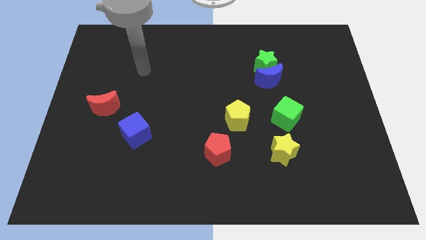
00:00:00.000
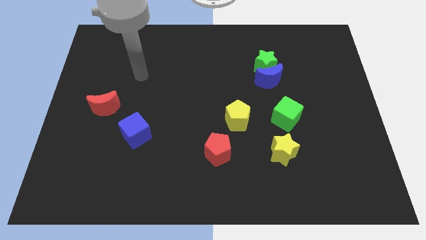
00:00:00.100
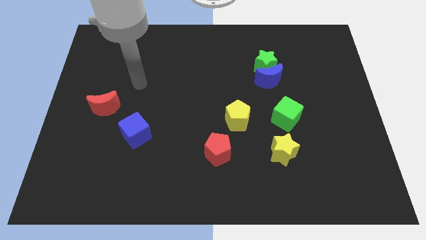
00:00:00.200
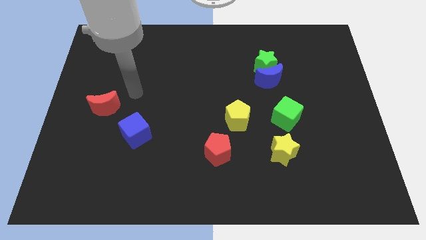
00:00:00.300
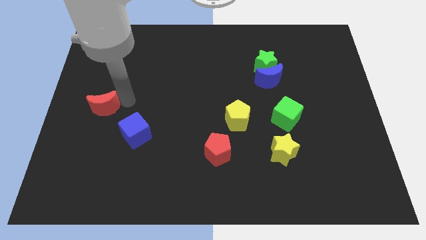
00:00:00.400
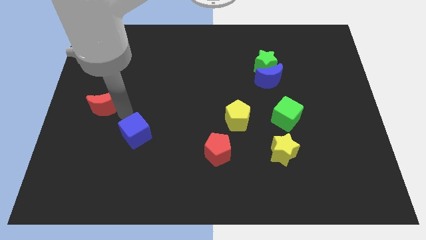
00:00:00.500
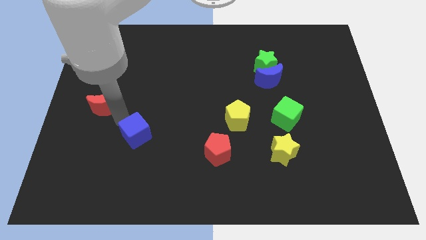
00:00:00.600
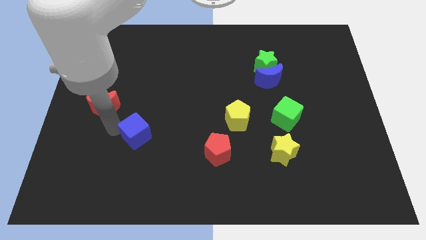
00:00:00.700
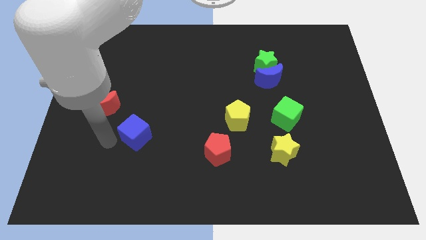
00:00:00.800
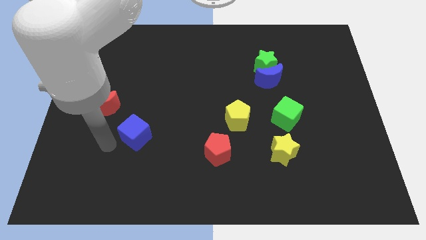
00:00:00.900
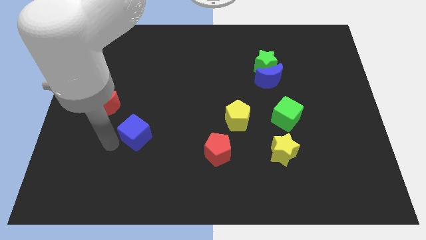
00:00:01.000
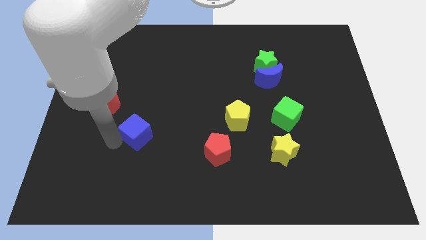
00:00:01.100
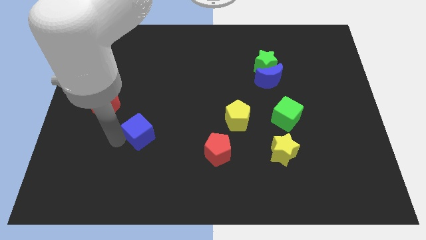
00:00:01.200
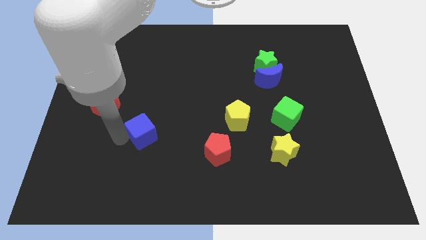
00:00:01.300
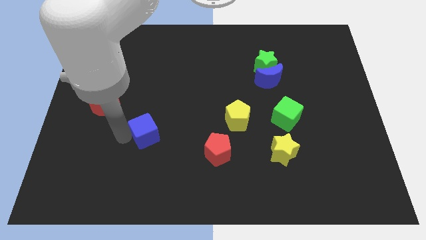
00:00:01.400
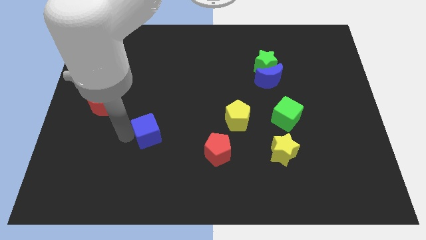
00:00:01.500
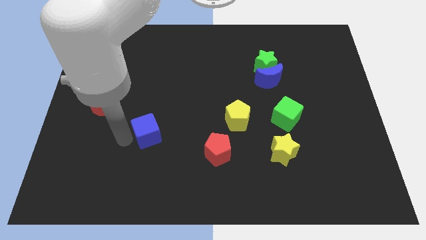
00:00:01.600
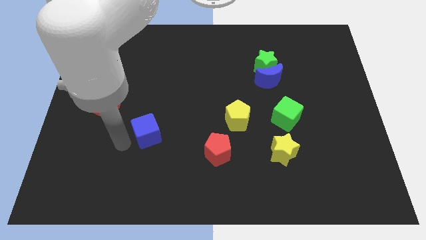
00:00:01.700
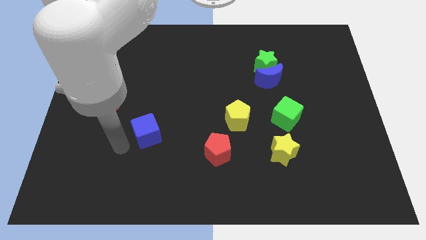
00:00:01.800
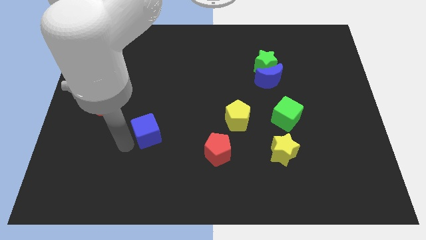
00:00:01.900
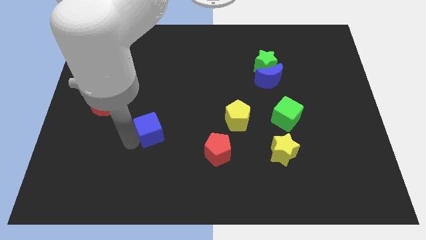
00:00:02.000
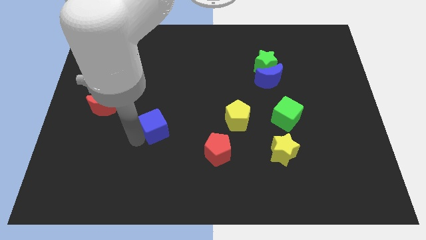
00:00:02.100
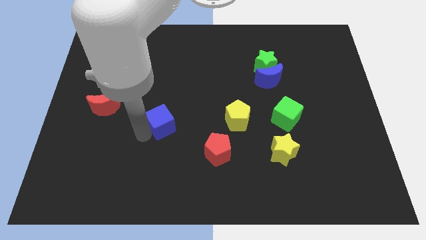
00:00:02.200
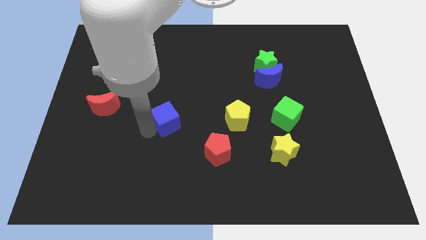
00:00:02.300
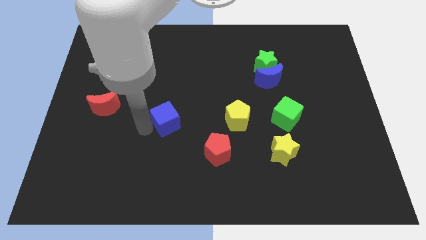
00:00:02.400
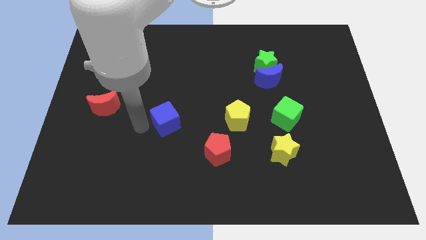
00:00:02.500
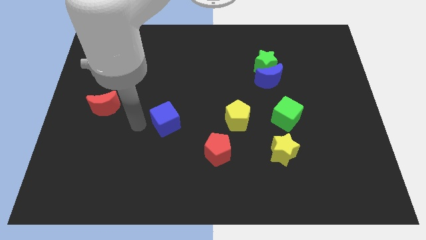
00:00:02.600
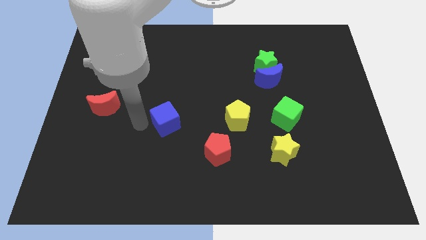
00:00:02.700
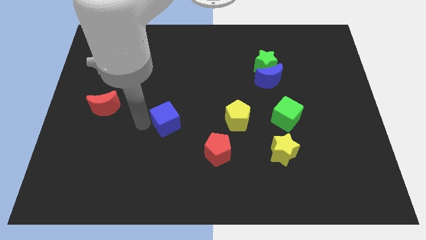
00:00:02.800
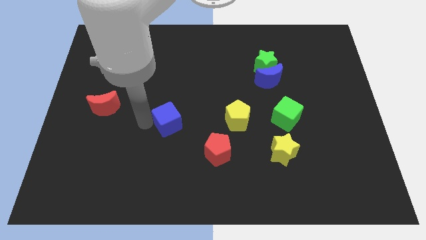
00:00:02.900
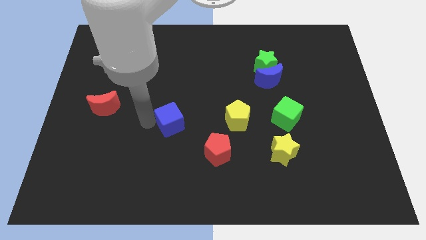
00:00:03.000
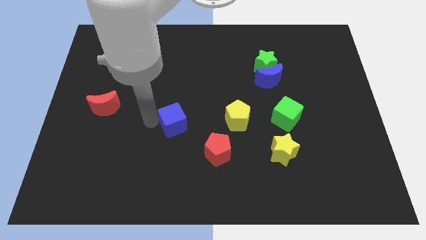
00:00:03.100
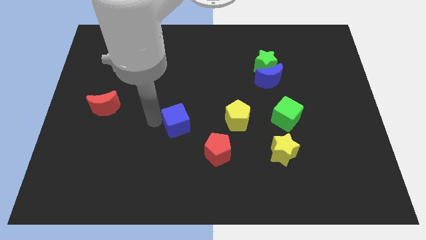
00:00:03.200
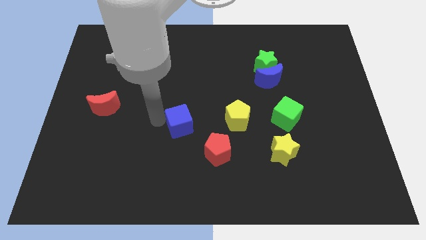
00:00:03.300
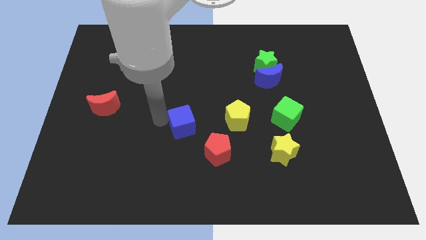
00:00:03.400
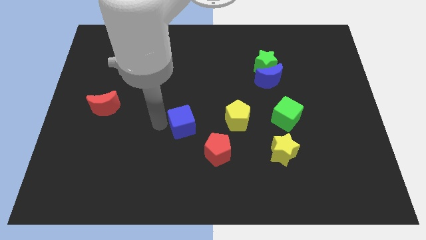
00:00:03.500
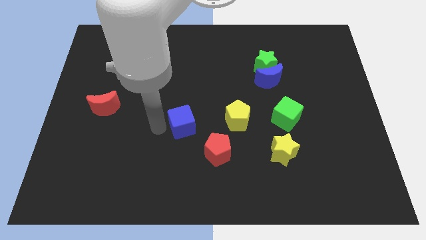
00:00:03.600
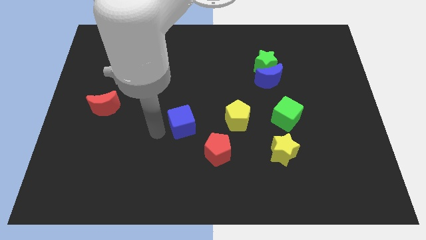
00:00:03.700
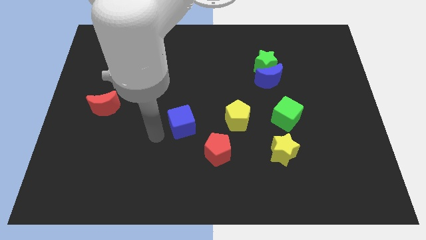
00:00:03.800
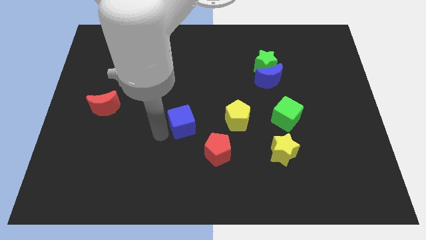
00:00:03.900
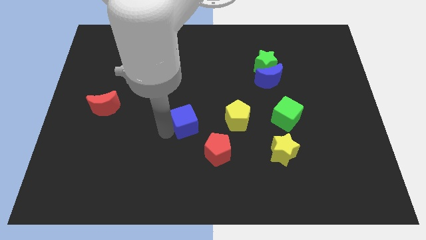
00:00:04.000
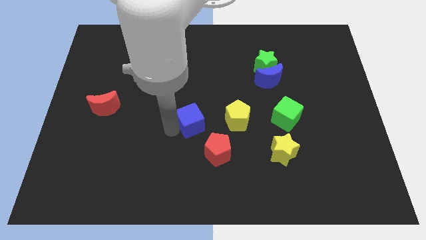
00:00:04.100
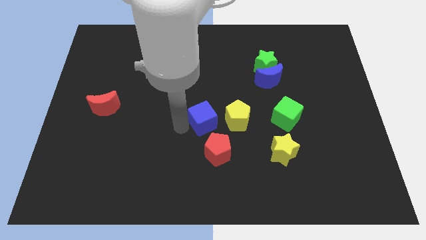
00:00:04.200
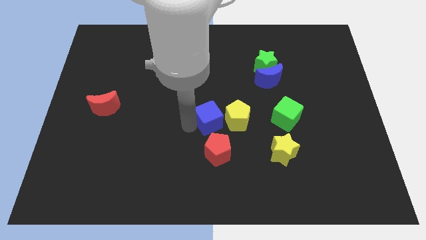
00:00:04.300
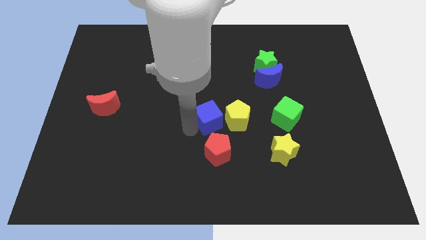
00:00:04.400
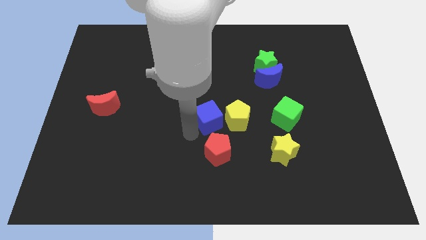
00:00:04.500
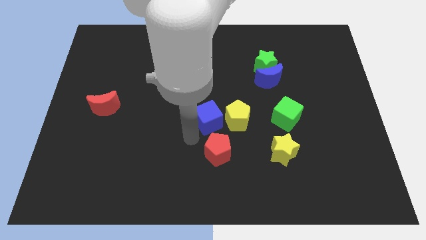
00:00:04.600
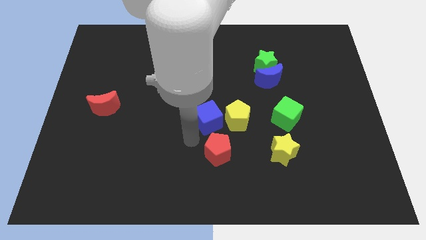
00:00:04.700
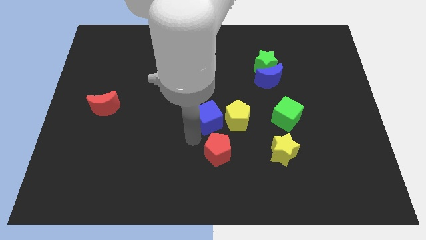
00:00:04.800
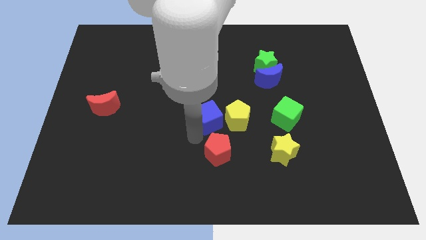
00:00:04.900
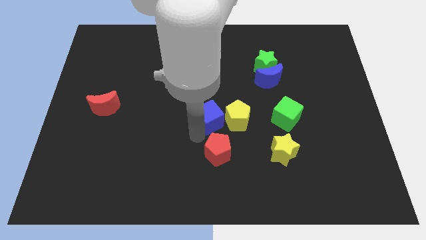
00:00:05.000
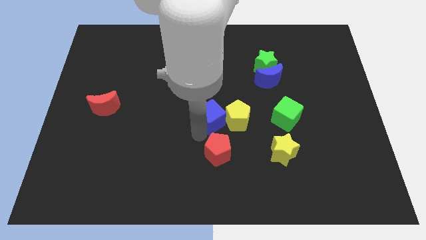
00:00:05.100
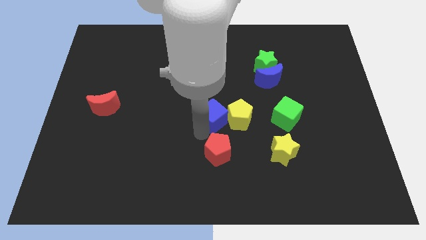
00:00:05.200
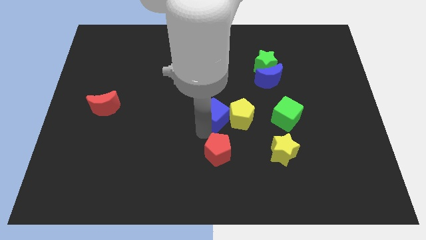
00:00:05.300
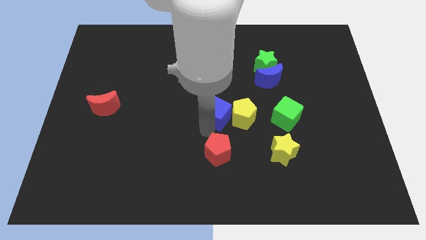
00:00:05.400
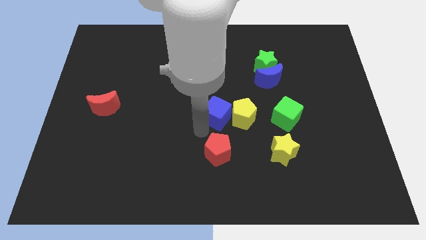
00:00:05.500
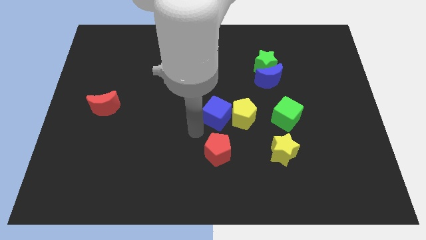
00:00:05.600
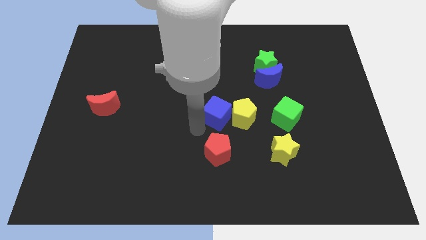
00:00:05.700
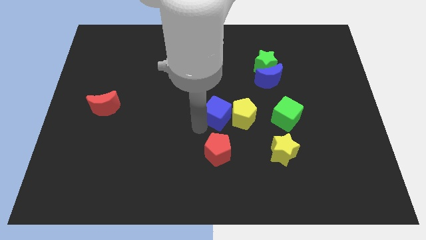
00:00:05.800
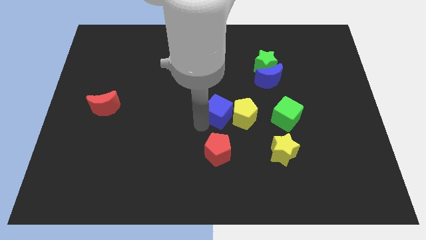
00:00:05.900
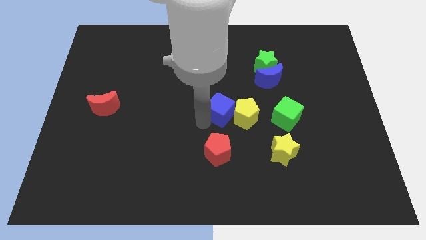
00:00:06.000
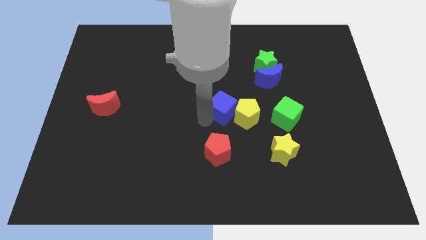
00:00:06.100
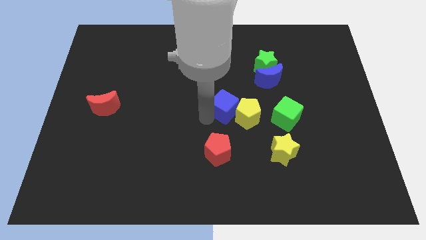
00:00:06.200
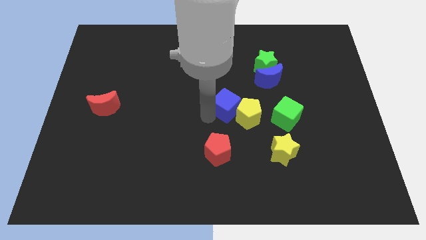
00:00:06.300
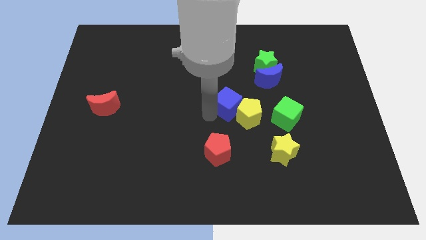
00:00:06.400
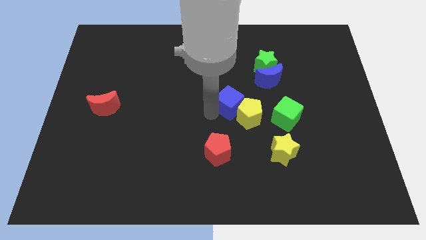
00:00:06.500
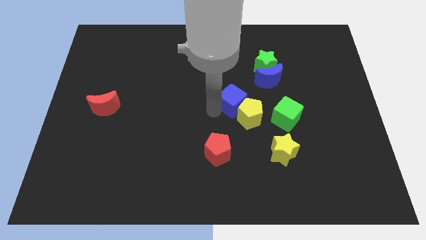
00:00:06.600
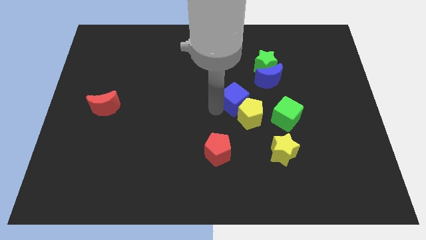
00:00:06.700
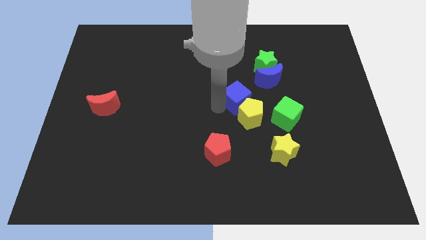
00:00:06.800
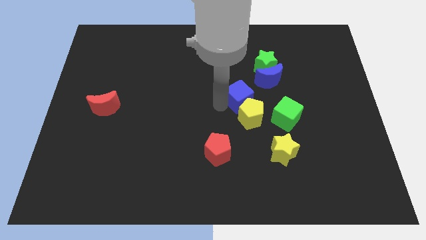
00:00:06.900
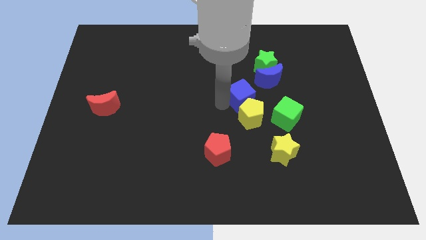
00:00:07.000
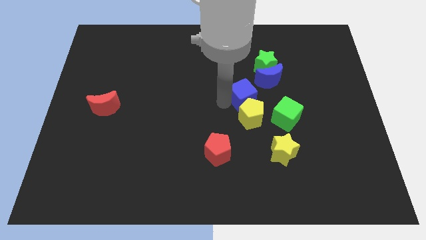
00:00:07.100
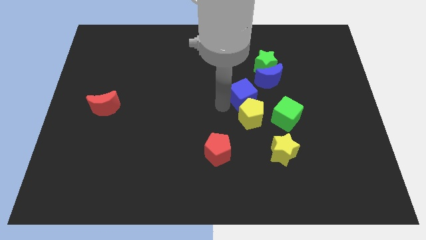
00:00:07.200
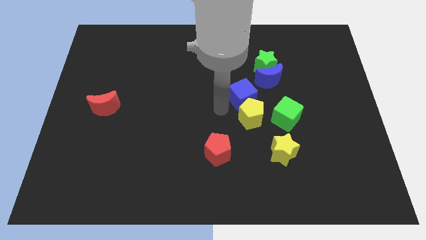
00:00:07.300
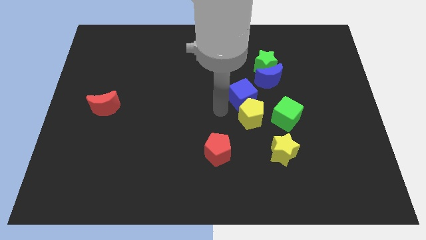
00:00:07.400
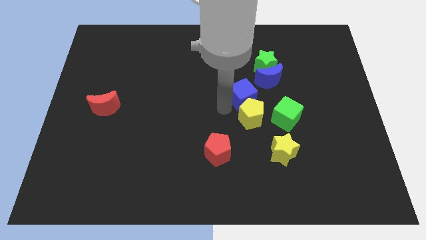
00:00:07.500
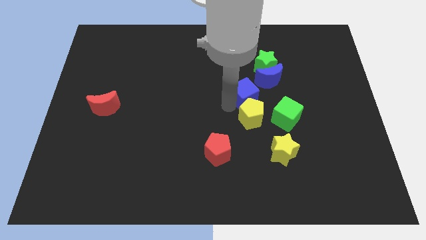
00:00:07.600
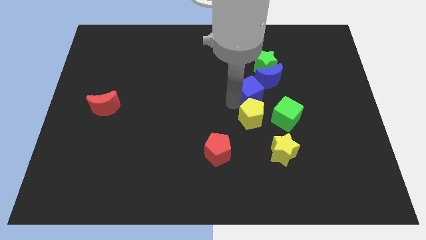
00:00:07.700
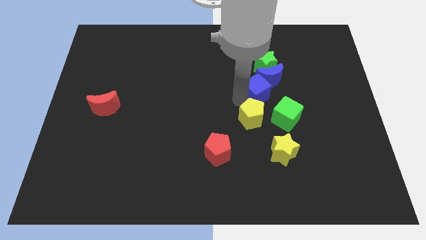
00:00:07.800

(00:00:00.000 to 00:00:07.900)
push the blue cube close to the blue moon
